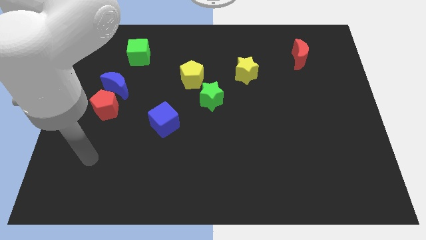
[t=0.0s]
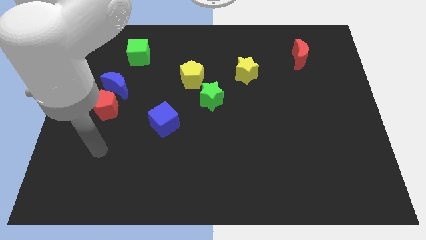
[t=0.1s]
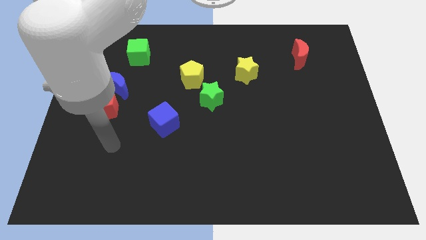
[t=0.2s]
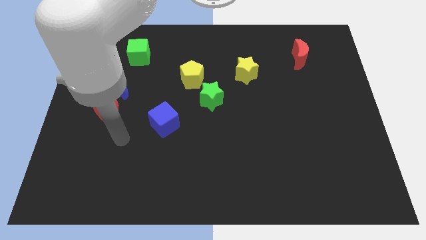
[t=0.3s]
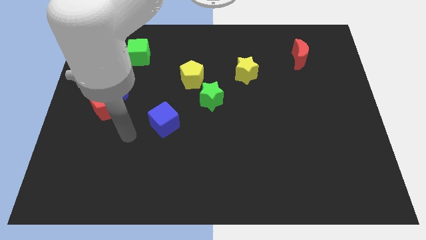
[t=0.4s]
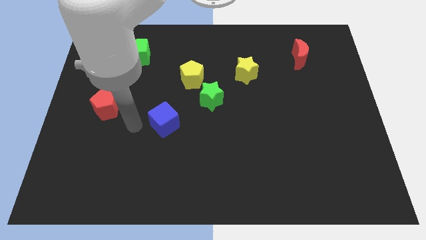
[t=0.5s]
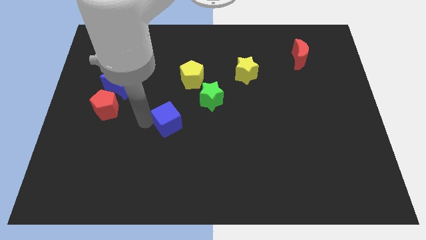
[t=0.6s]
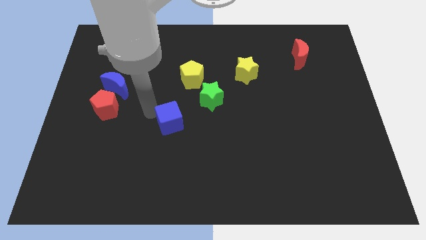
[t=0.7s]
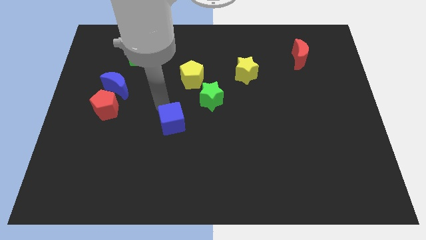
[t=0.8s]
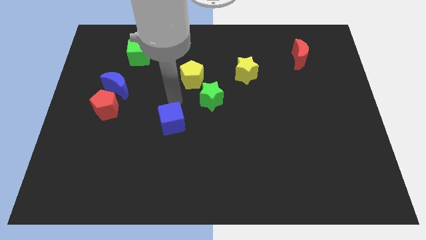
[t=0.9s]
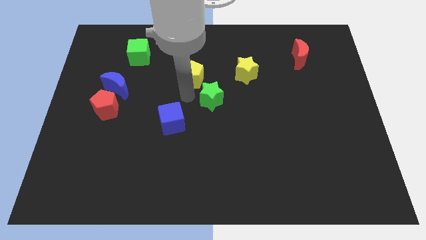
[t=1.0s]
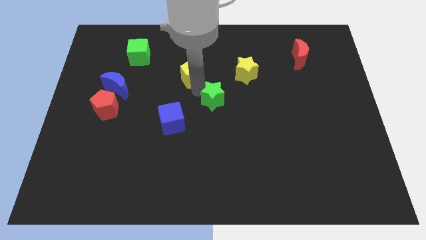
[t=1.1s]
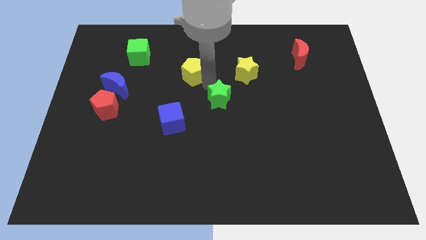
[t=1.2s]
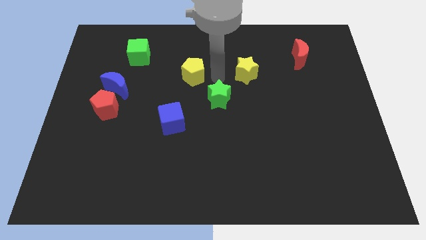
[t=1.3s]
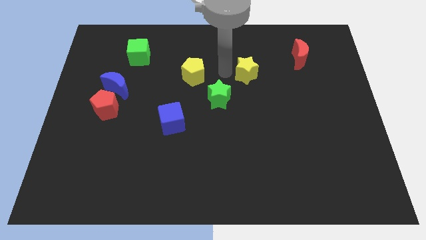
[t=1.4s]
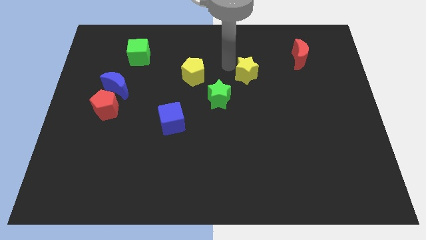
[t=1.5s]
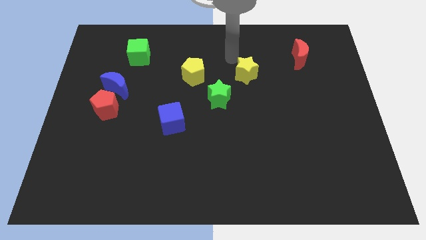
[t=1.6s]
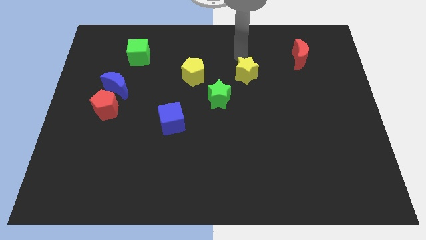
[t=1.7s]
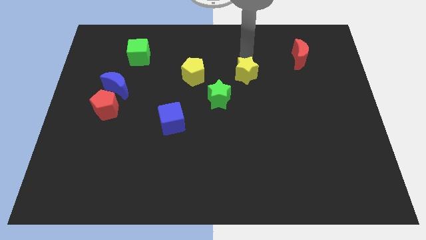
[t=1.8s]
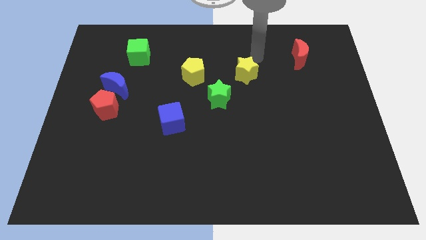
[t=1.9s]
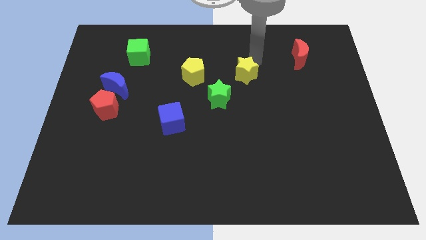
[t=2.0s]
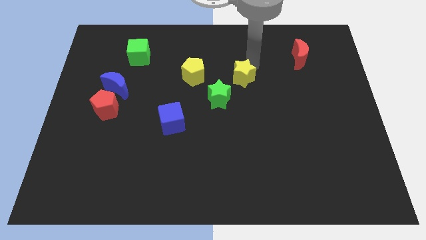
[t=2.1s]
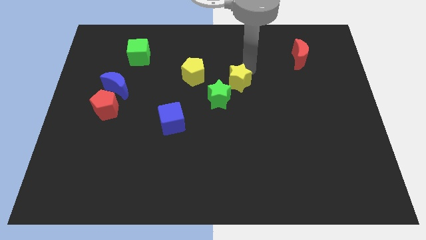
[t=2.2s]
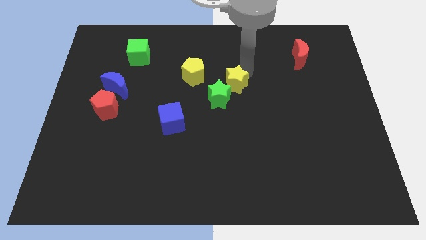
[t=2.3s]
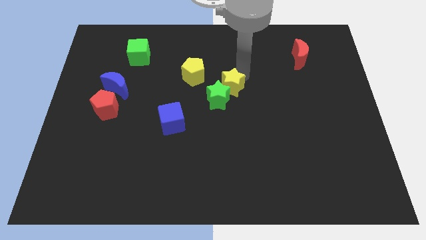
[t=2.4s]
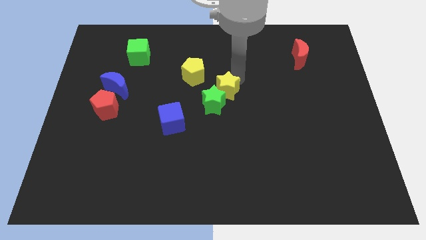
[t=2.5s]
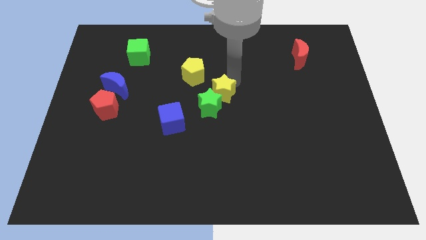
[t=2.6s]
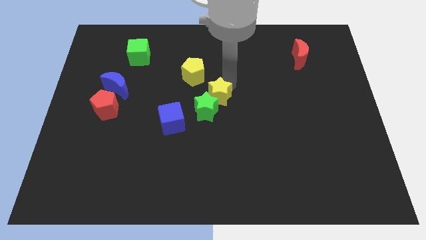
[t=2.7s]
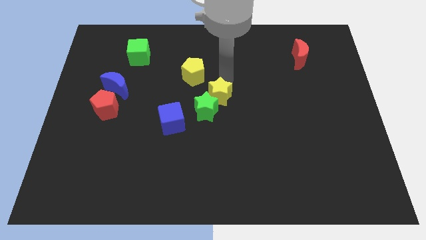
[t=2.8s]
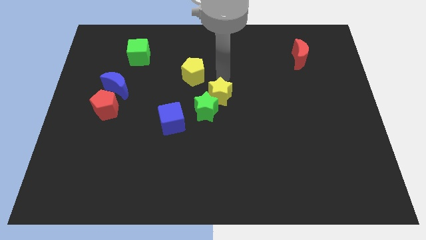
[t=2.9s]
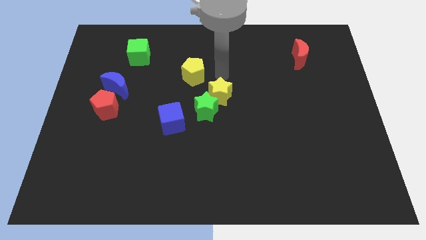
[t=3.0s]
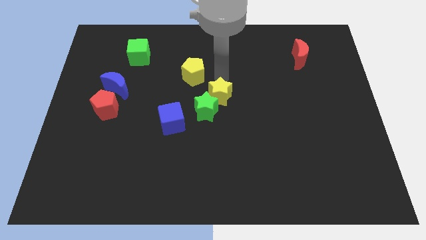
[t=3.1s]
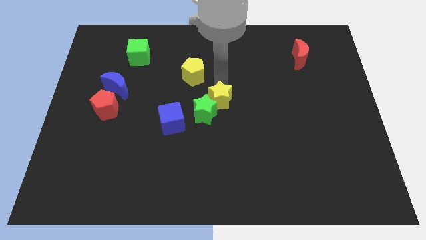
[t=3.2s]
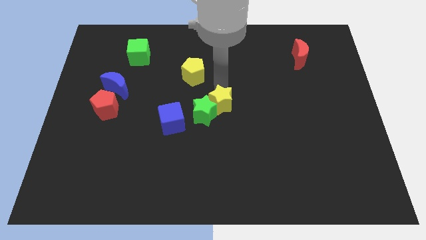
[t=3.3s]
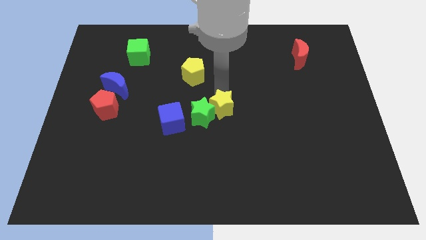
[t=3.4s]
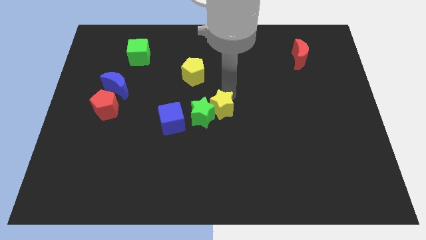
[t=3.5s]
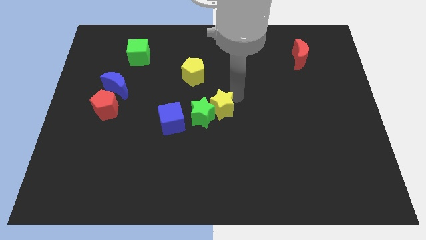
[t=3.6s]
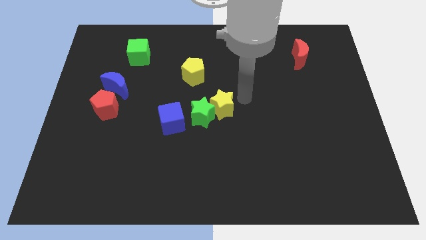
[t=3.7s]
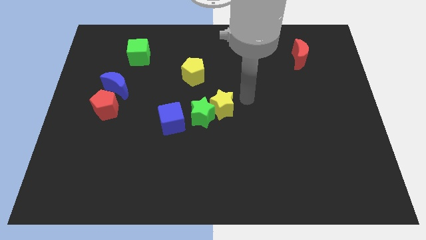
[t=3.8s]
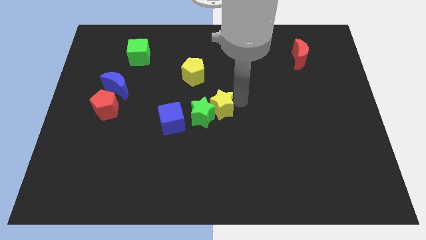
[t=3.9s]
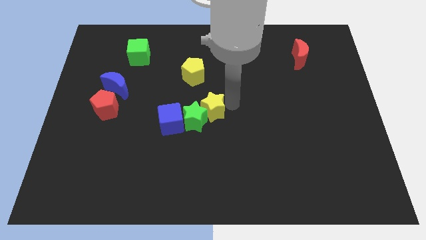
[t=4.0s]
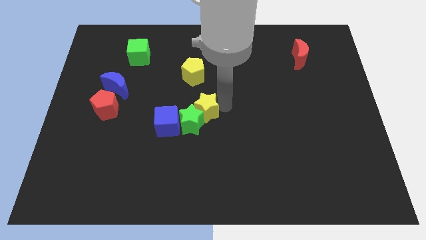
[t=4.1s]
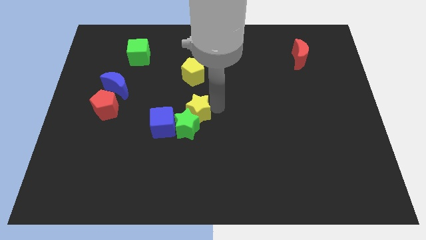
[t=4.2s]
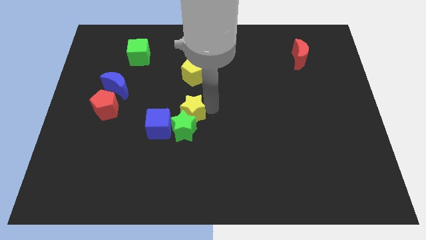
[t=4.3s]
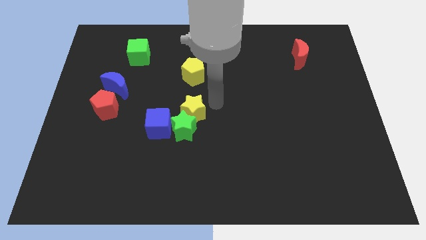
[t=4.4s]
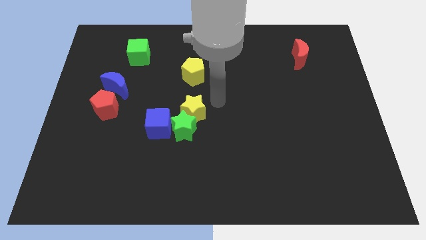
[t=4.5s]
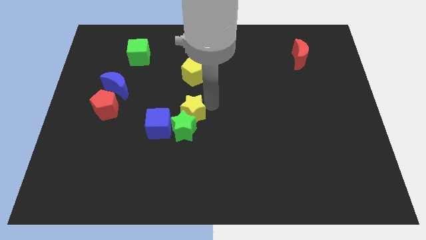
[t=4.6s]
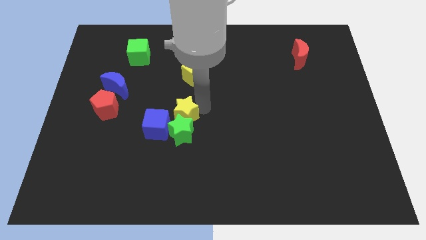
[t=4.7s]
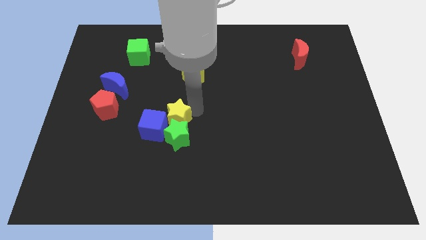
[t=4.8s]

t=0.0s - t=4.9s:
push the yellow star close to the blue cube

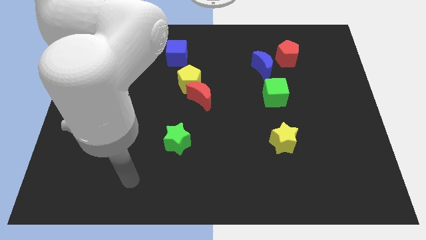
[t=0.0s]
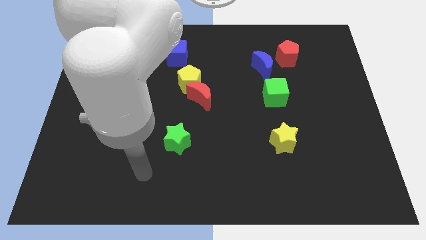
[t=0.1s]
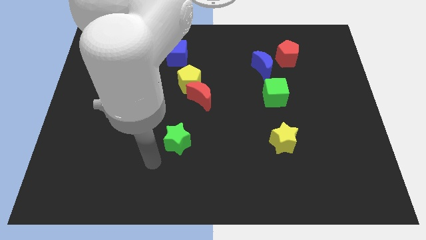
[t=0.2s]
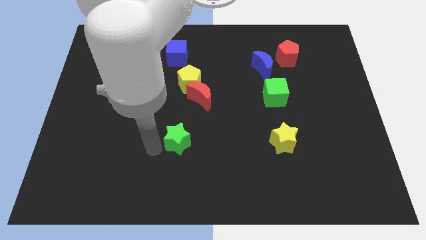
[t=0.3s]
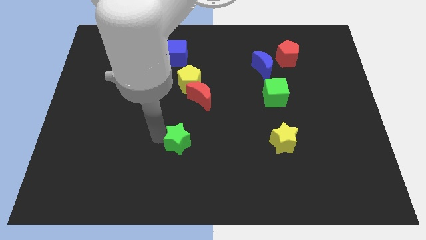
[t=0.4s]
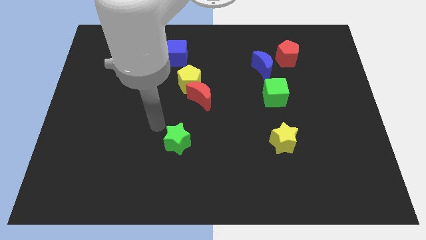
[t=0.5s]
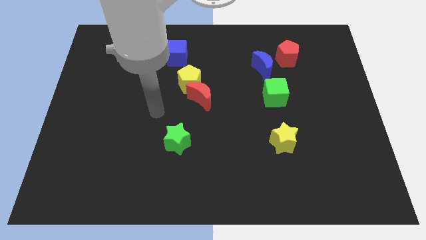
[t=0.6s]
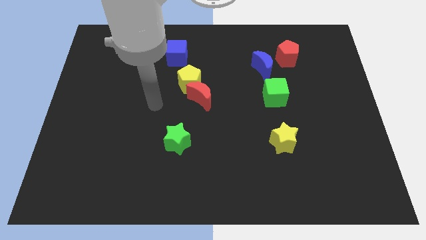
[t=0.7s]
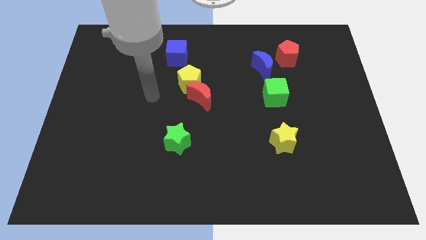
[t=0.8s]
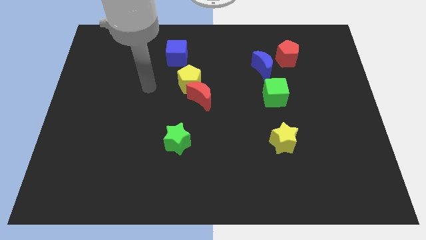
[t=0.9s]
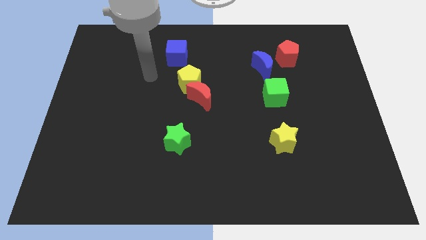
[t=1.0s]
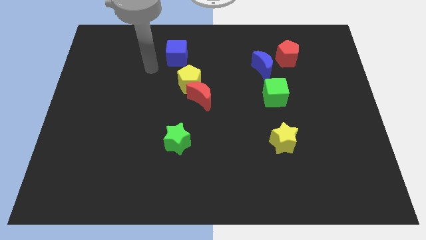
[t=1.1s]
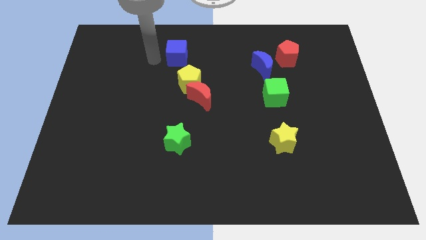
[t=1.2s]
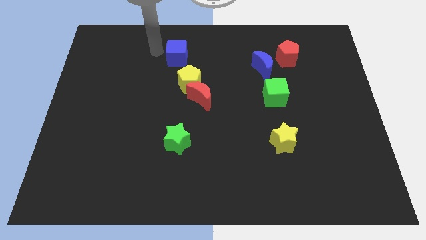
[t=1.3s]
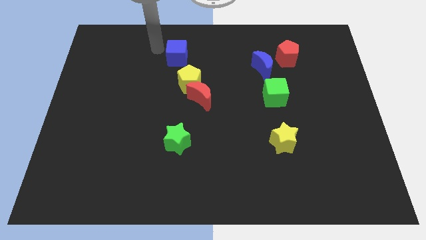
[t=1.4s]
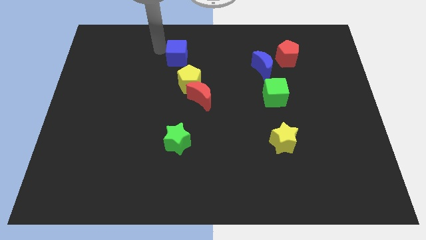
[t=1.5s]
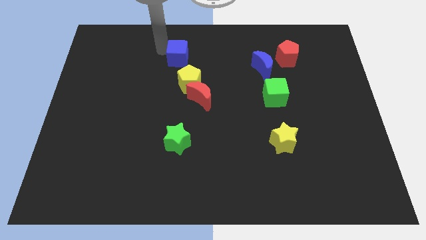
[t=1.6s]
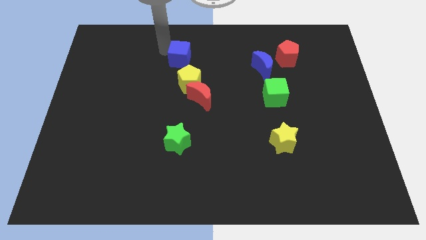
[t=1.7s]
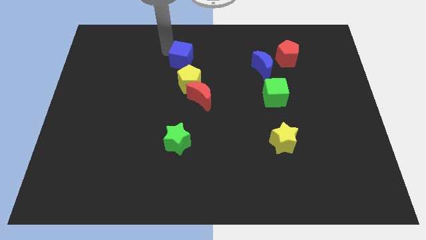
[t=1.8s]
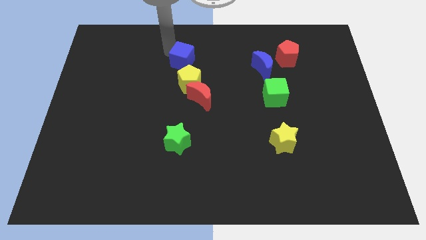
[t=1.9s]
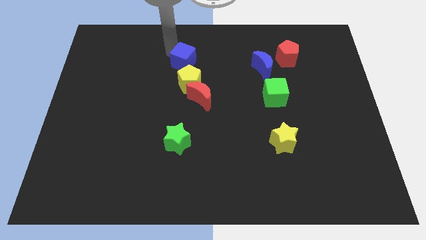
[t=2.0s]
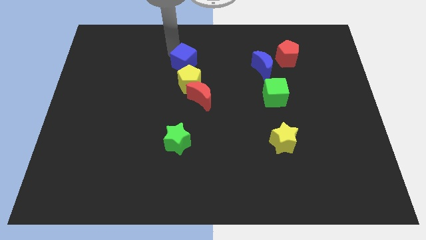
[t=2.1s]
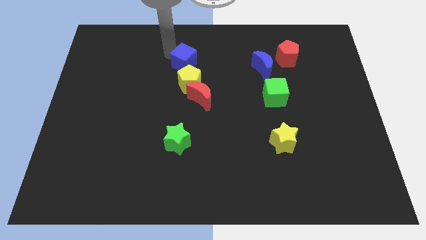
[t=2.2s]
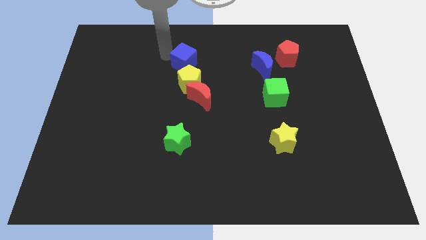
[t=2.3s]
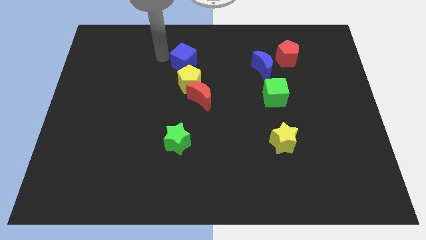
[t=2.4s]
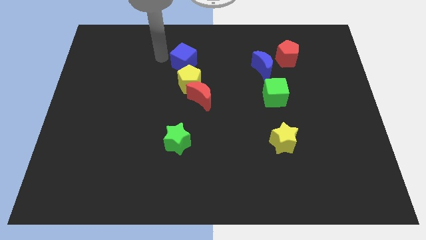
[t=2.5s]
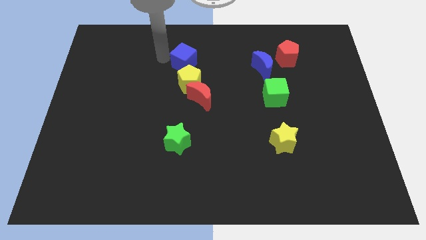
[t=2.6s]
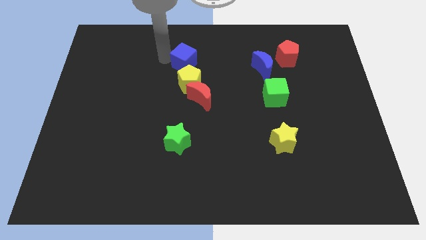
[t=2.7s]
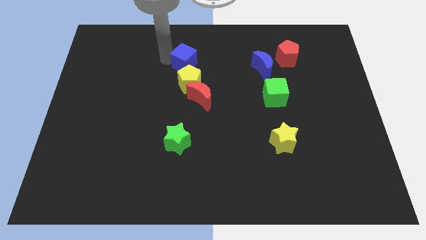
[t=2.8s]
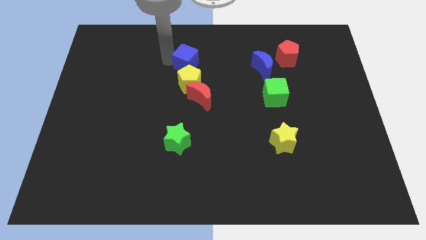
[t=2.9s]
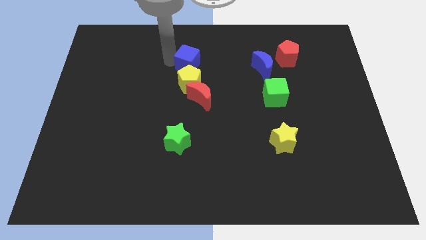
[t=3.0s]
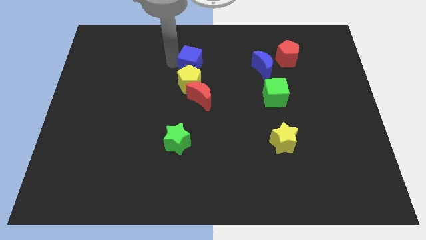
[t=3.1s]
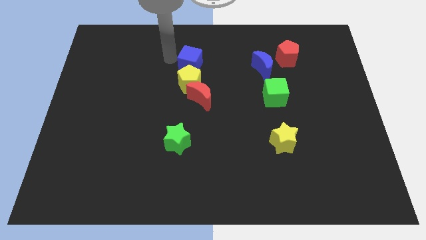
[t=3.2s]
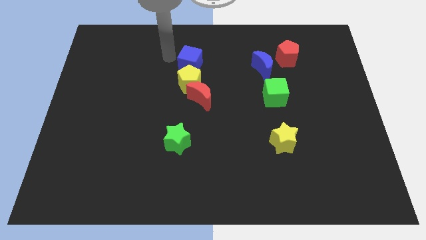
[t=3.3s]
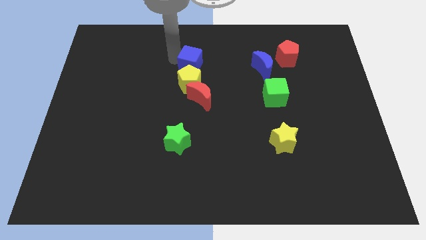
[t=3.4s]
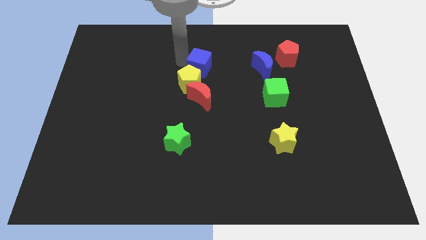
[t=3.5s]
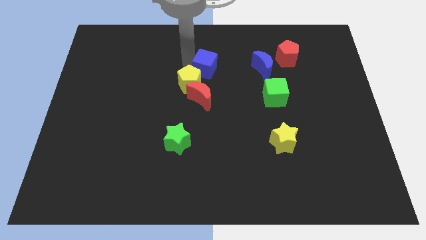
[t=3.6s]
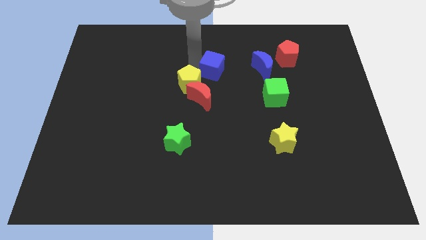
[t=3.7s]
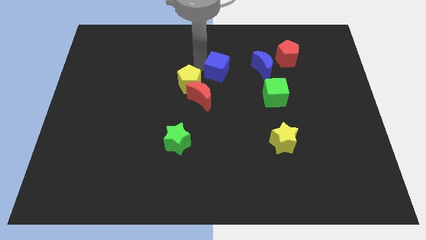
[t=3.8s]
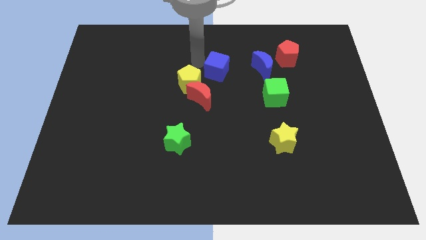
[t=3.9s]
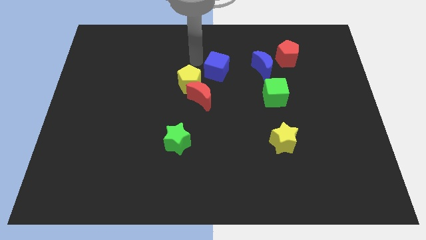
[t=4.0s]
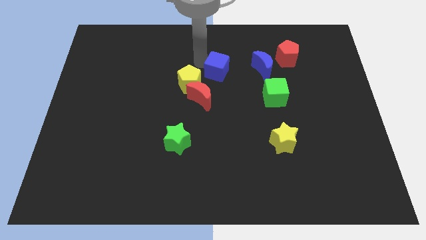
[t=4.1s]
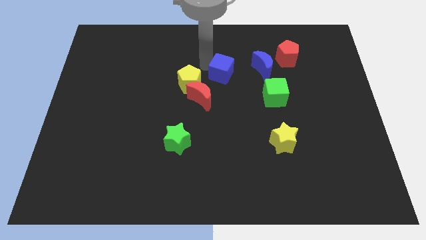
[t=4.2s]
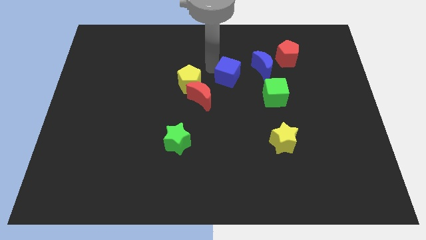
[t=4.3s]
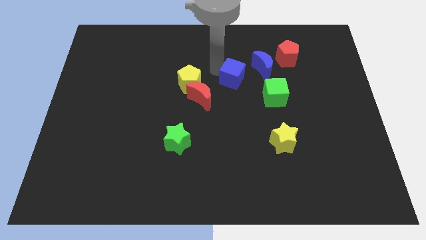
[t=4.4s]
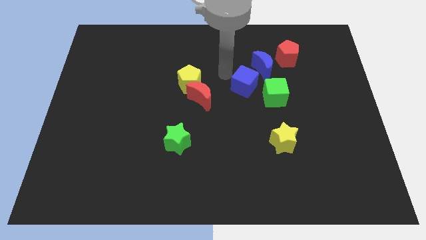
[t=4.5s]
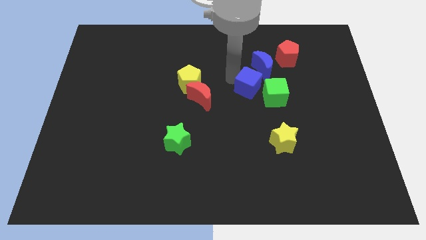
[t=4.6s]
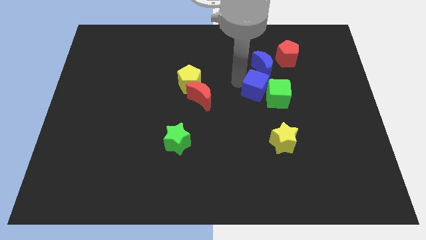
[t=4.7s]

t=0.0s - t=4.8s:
move the blue cube next to the green cube
